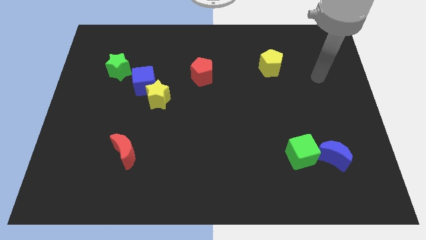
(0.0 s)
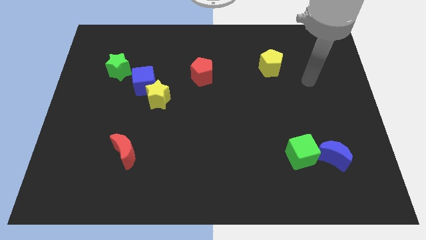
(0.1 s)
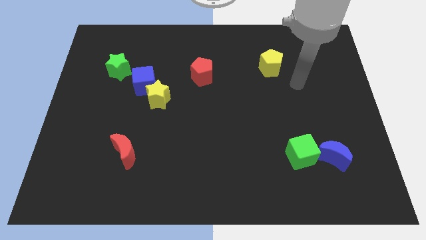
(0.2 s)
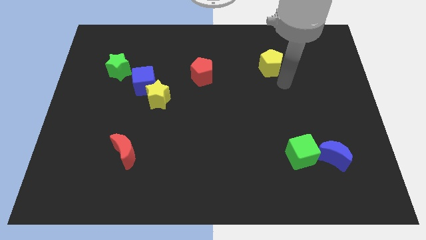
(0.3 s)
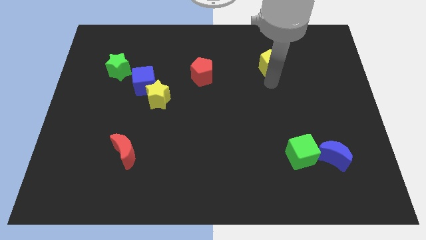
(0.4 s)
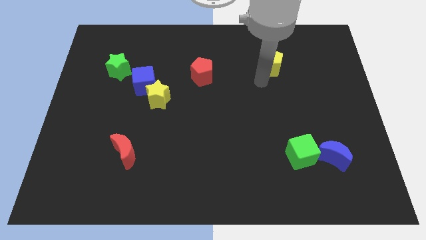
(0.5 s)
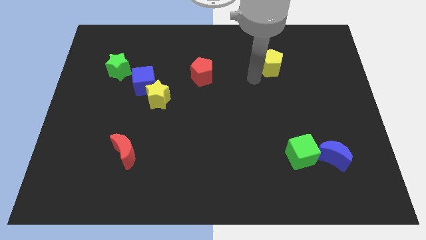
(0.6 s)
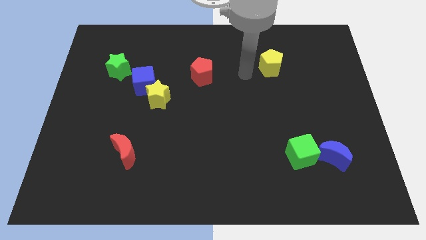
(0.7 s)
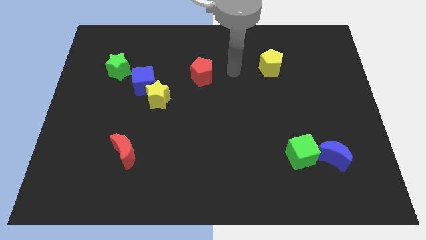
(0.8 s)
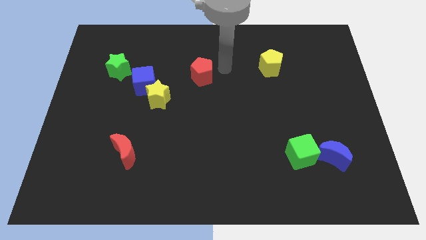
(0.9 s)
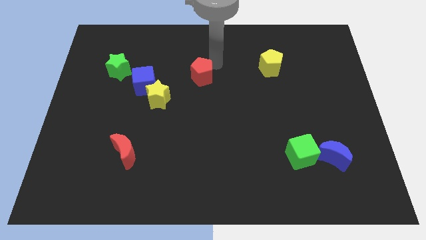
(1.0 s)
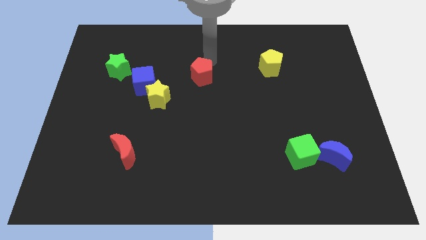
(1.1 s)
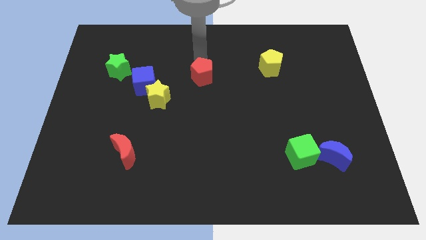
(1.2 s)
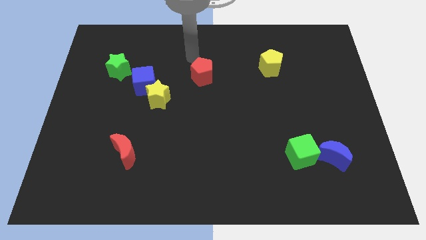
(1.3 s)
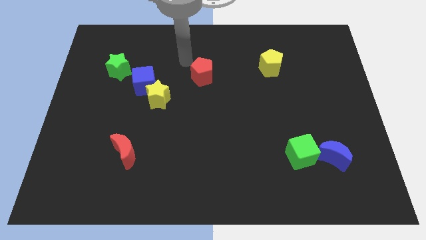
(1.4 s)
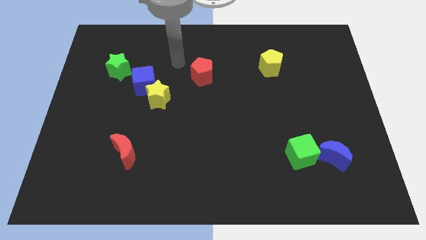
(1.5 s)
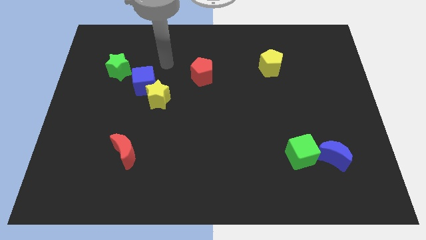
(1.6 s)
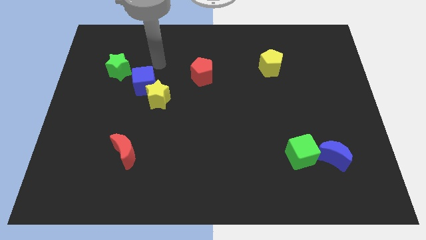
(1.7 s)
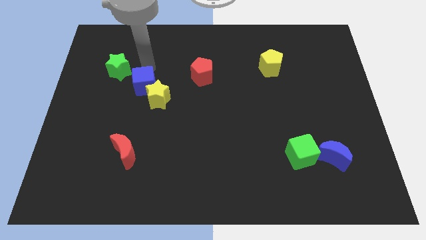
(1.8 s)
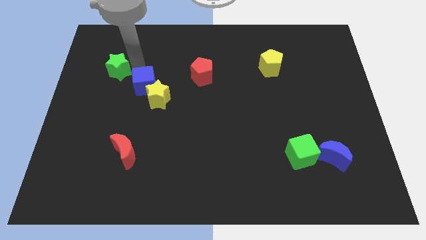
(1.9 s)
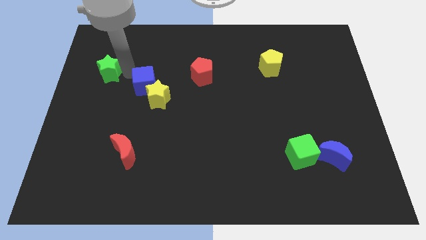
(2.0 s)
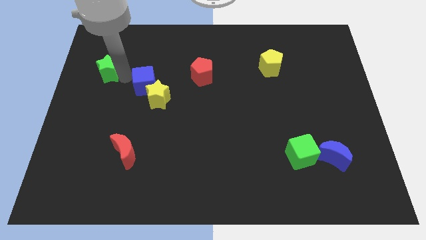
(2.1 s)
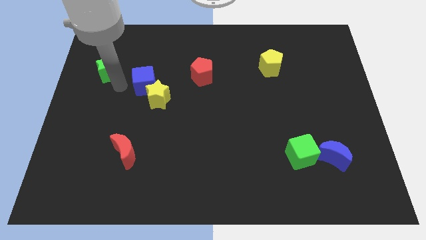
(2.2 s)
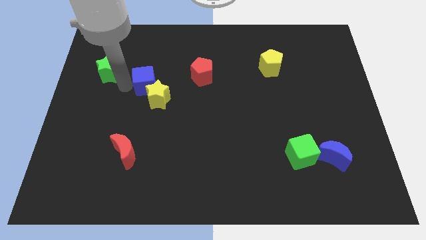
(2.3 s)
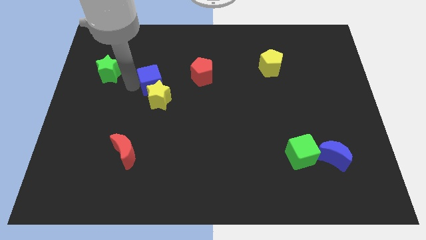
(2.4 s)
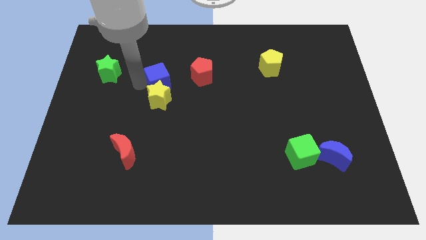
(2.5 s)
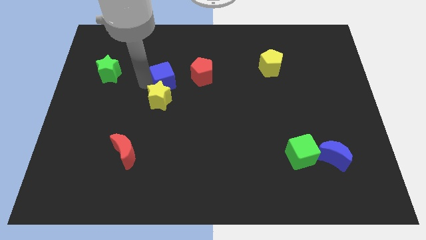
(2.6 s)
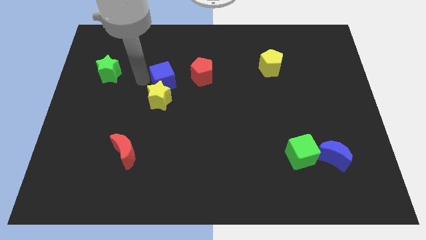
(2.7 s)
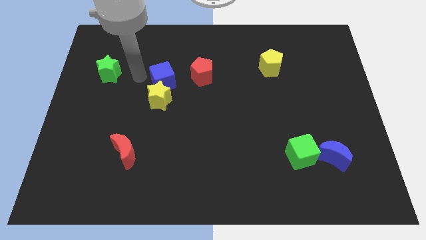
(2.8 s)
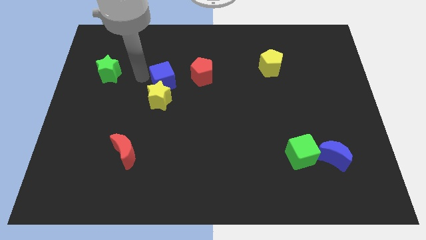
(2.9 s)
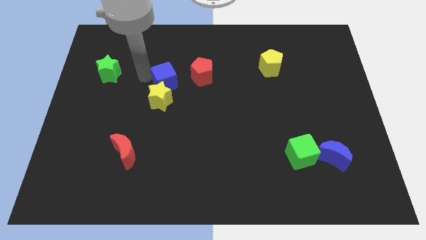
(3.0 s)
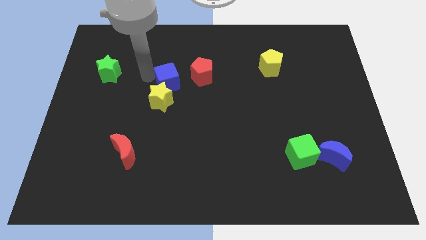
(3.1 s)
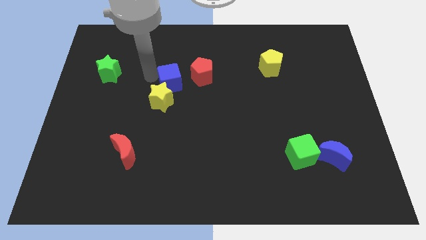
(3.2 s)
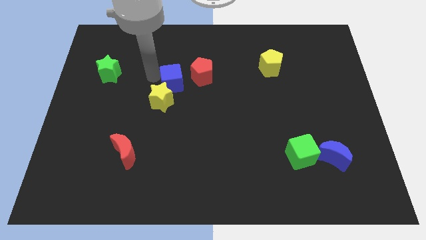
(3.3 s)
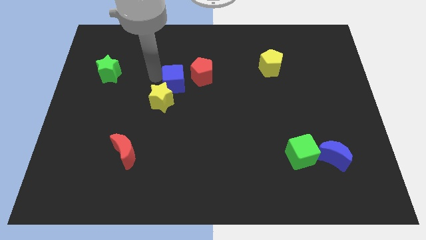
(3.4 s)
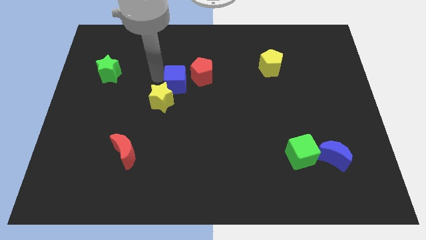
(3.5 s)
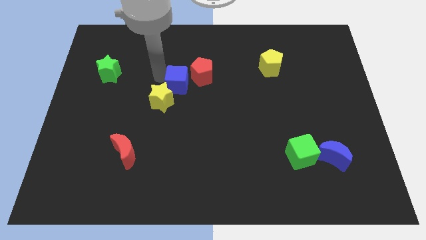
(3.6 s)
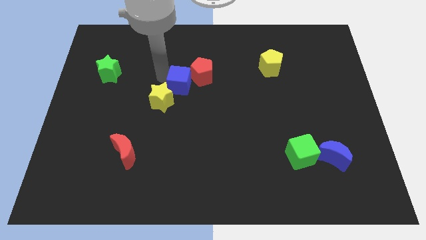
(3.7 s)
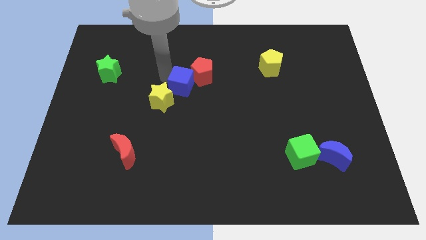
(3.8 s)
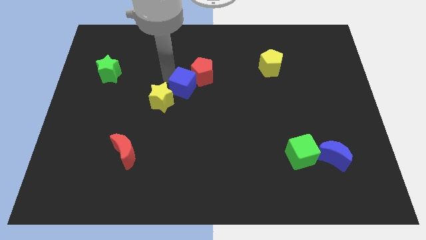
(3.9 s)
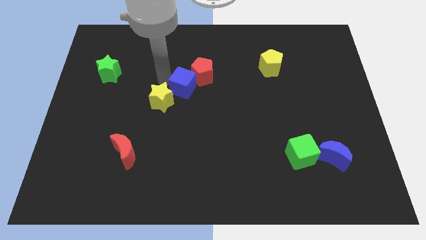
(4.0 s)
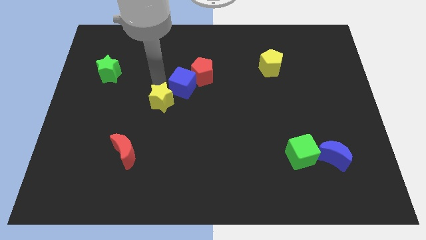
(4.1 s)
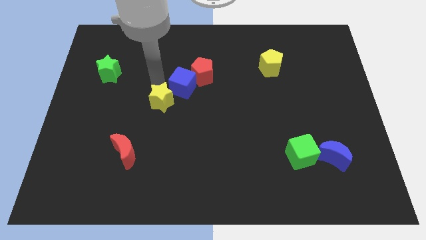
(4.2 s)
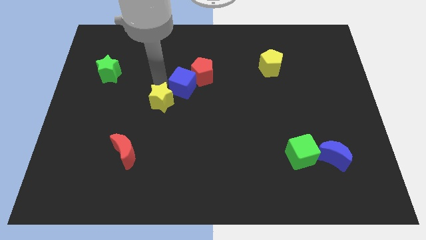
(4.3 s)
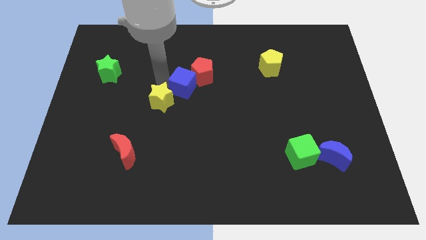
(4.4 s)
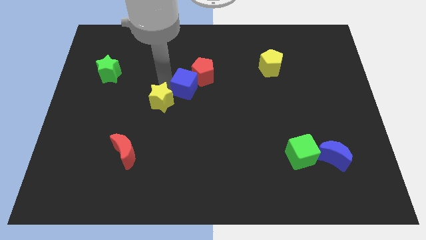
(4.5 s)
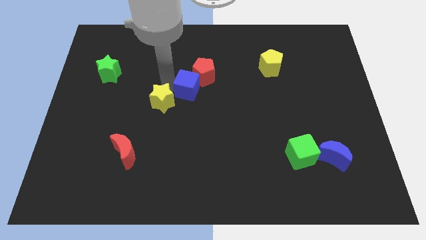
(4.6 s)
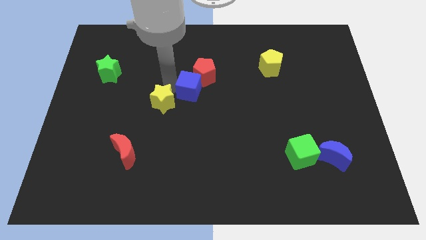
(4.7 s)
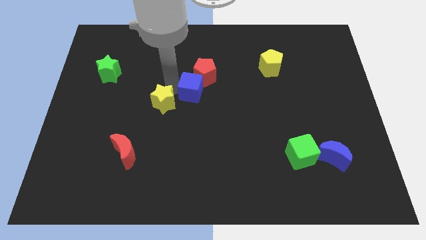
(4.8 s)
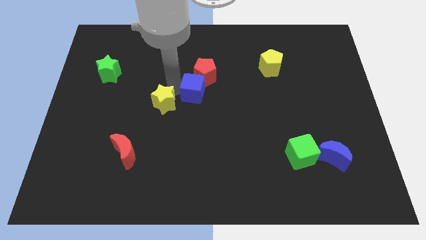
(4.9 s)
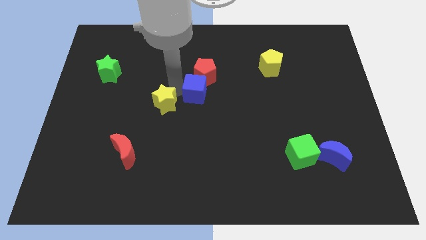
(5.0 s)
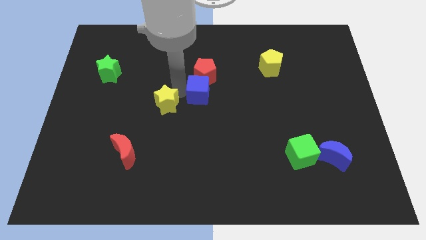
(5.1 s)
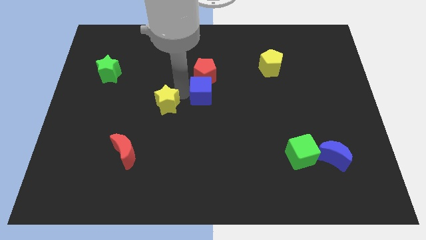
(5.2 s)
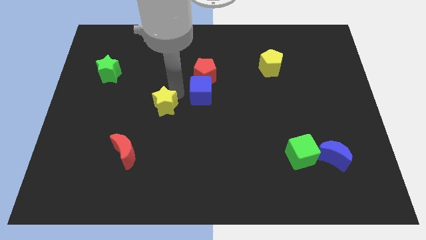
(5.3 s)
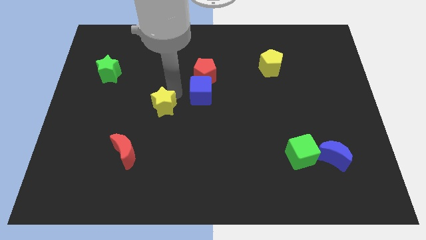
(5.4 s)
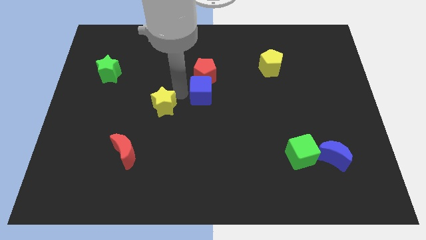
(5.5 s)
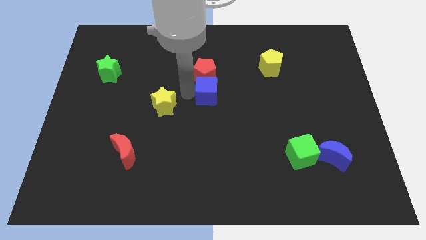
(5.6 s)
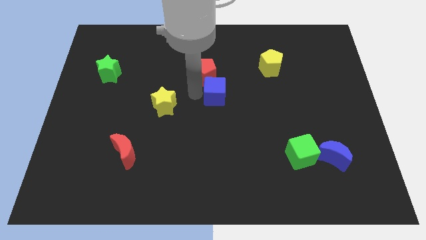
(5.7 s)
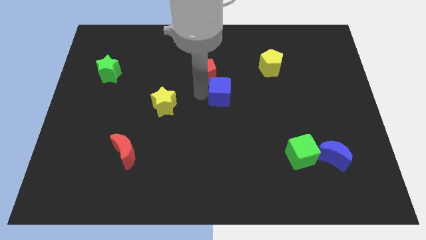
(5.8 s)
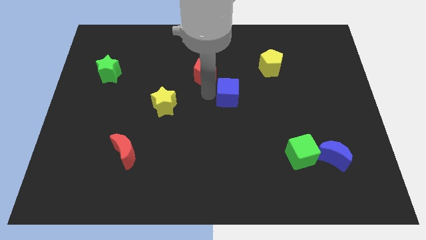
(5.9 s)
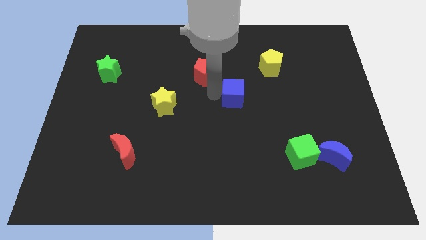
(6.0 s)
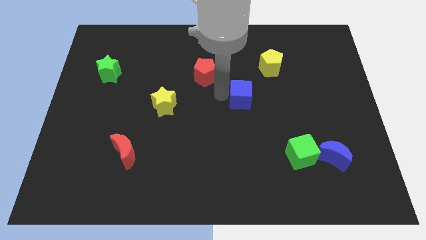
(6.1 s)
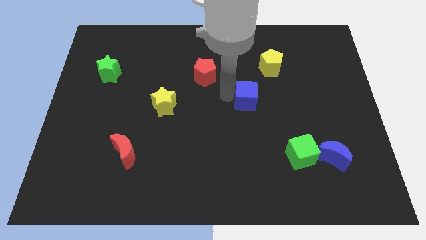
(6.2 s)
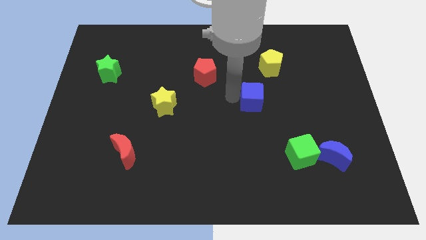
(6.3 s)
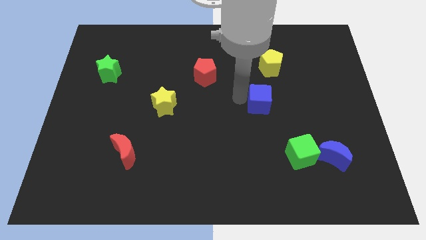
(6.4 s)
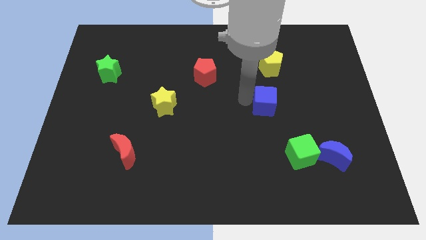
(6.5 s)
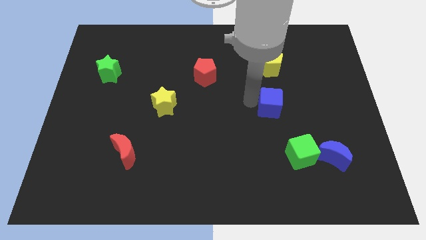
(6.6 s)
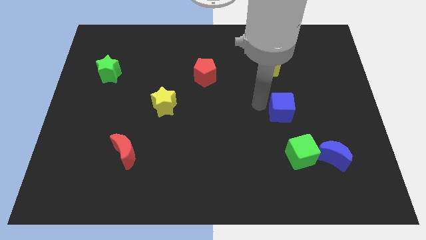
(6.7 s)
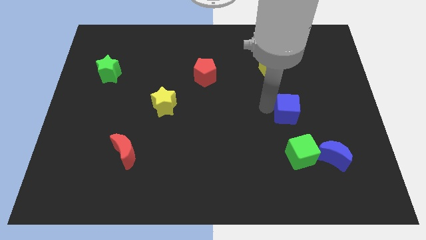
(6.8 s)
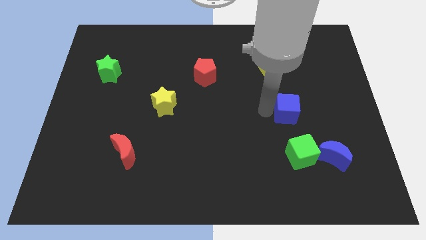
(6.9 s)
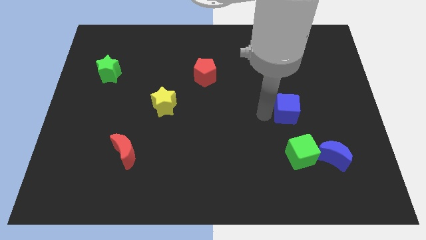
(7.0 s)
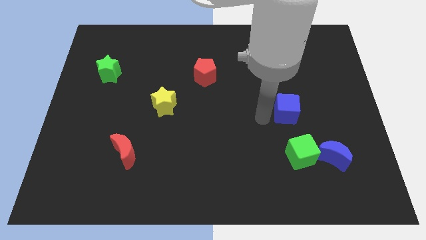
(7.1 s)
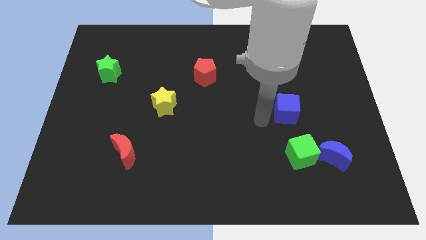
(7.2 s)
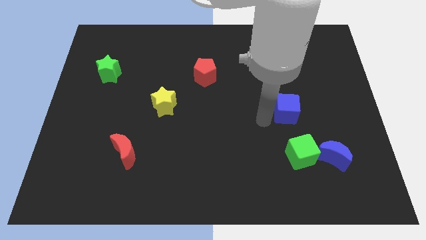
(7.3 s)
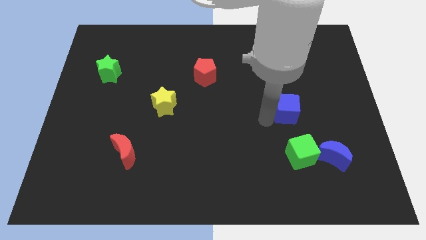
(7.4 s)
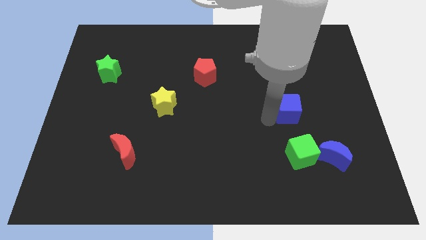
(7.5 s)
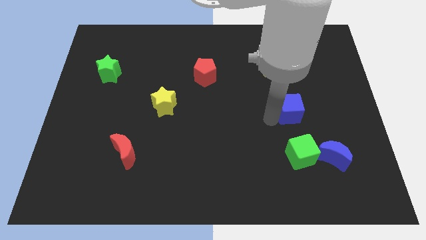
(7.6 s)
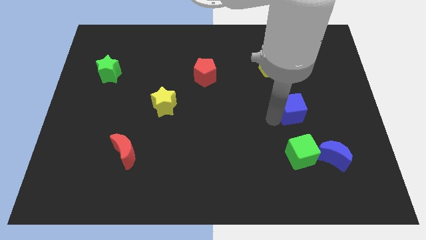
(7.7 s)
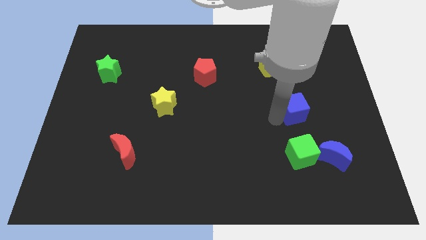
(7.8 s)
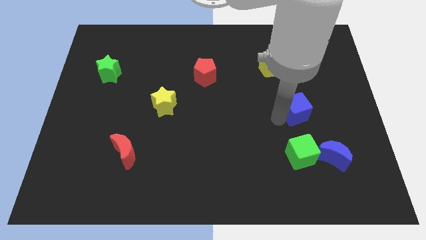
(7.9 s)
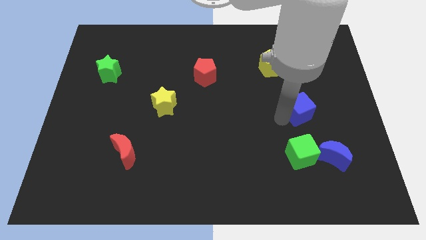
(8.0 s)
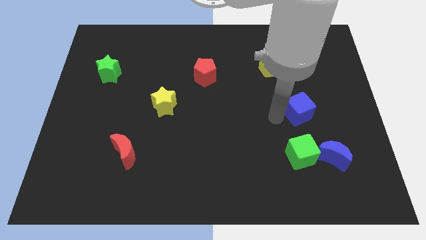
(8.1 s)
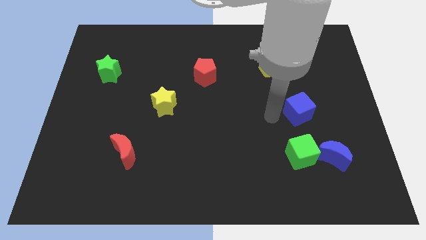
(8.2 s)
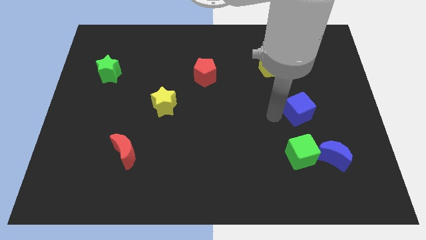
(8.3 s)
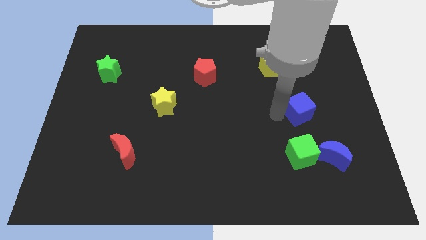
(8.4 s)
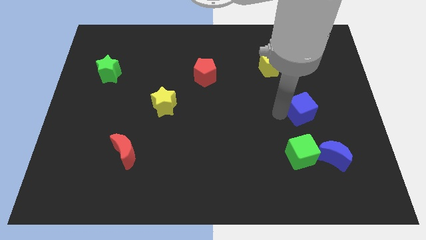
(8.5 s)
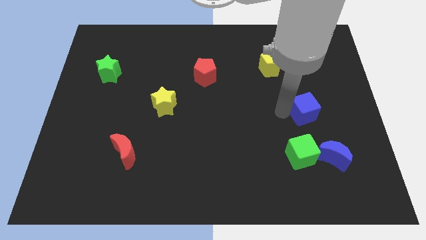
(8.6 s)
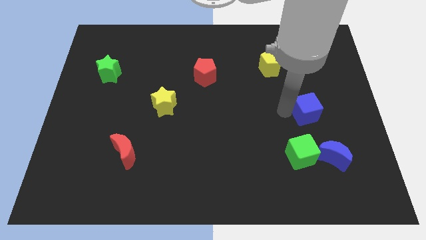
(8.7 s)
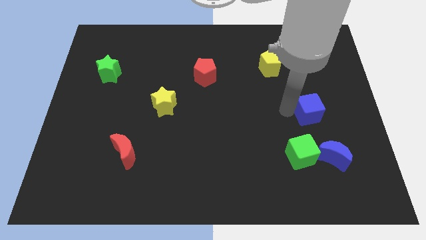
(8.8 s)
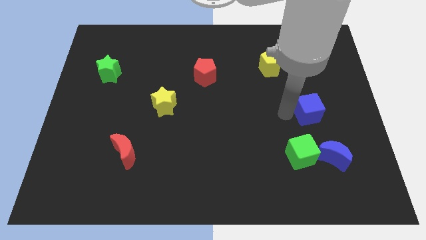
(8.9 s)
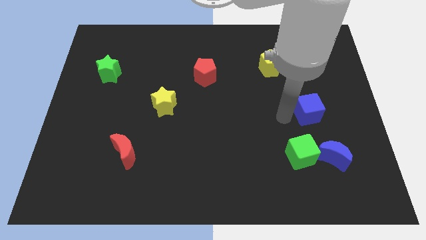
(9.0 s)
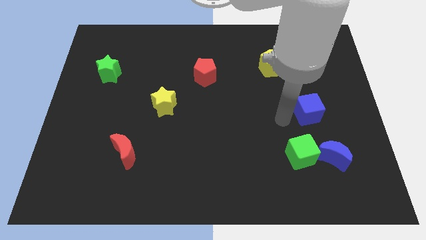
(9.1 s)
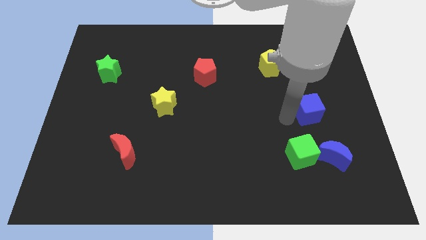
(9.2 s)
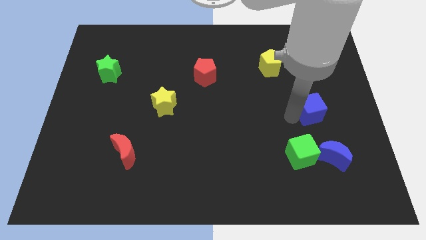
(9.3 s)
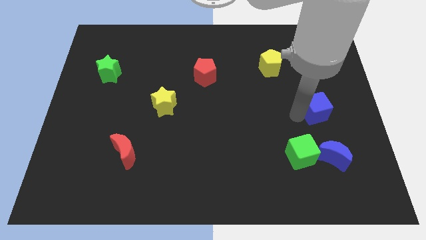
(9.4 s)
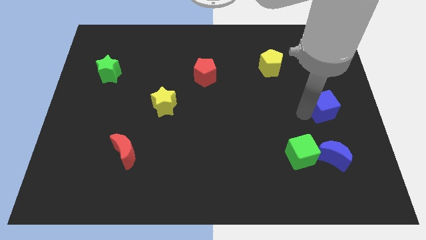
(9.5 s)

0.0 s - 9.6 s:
move the blue cube to the right side
